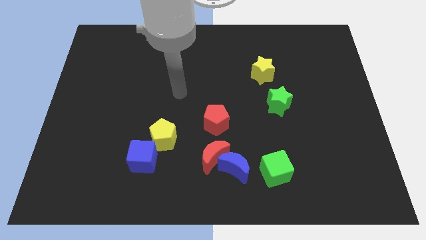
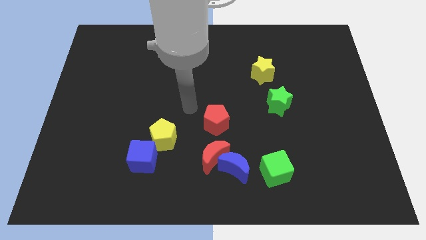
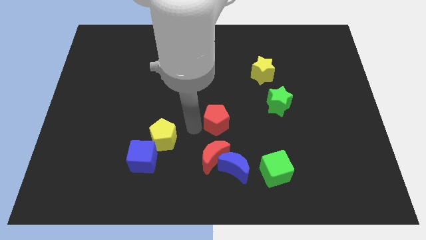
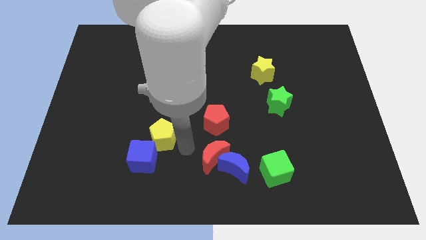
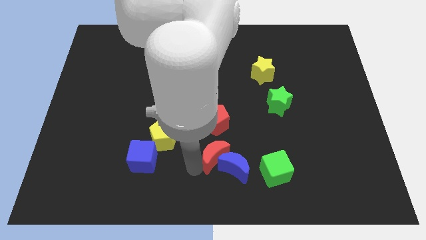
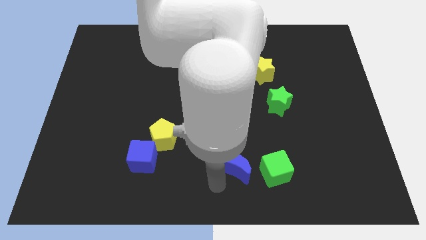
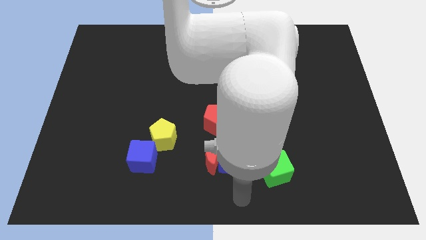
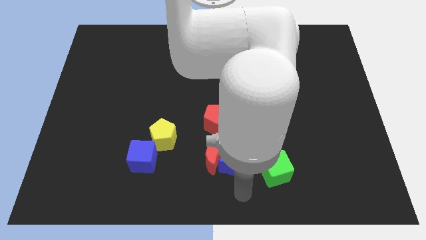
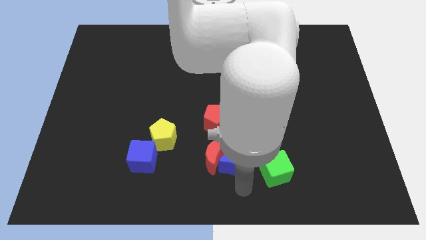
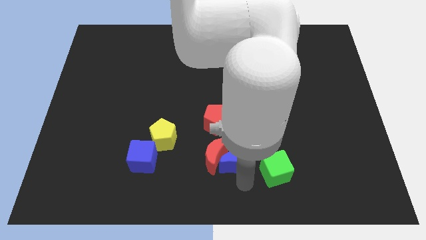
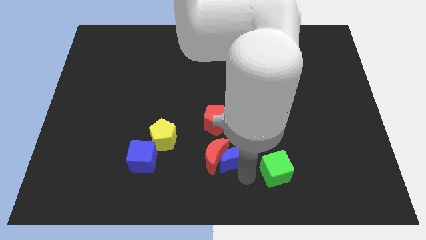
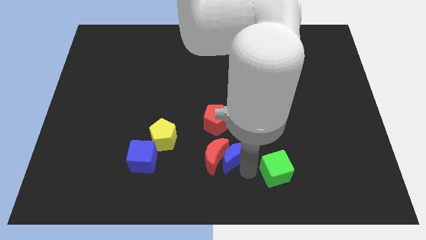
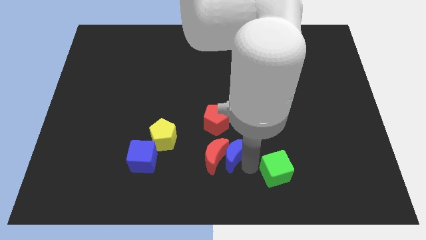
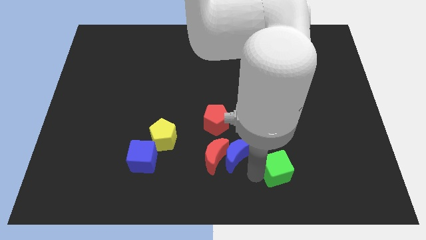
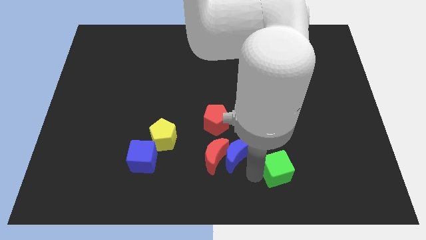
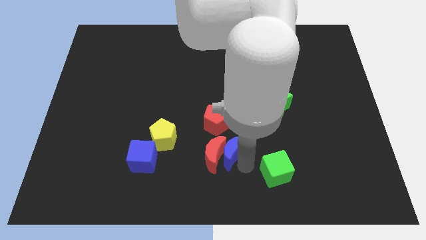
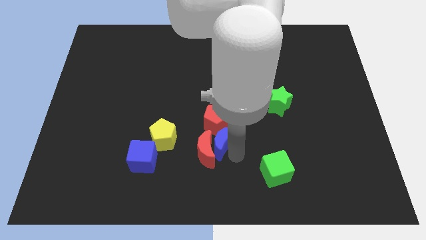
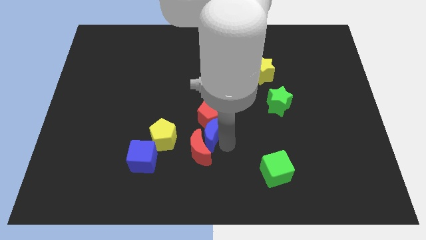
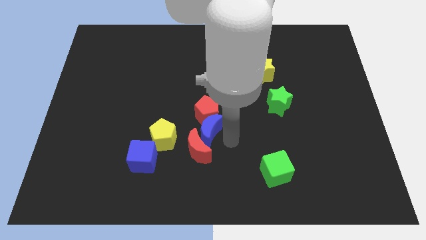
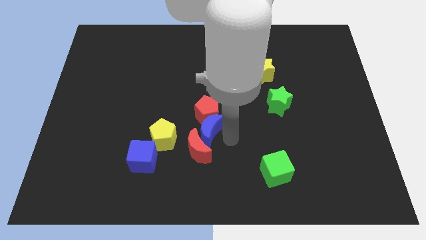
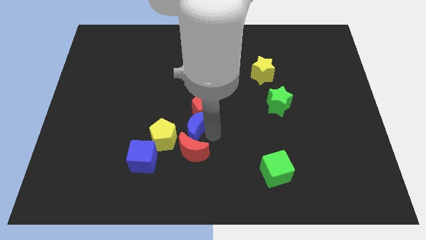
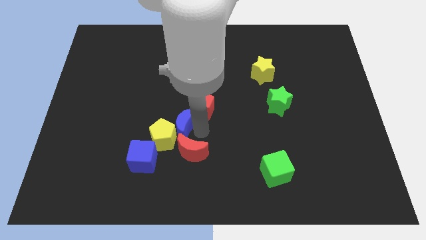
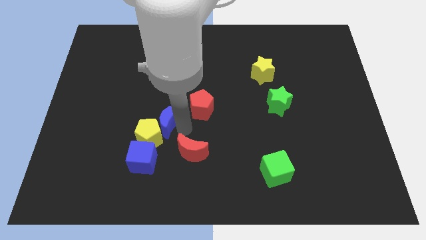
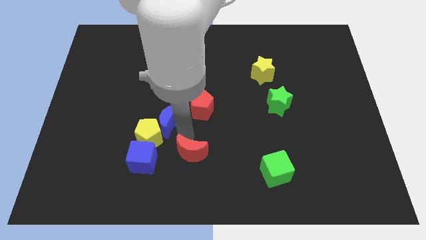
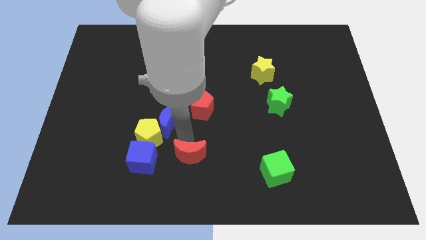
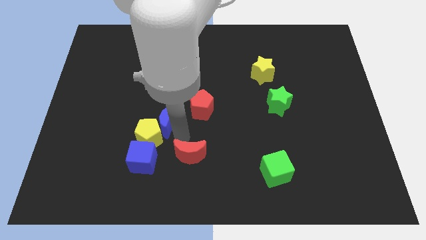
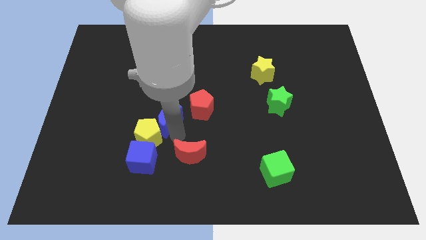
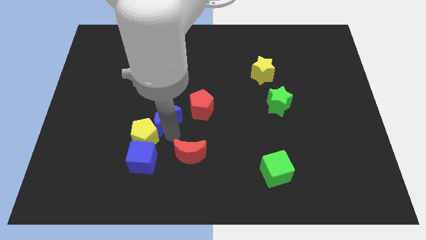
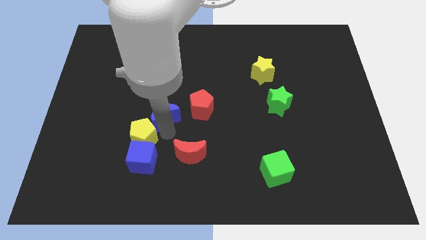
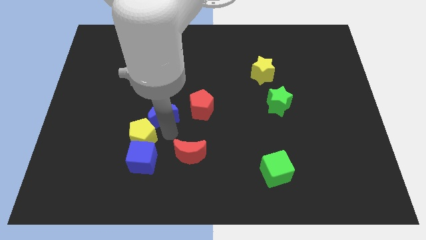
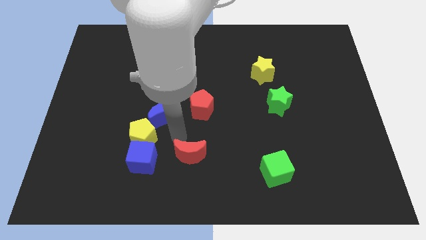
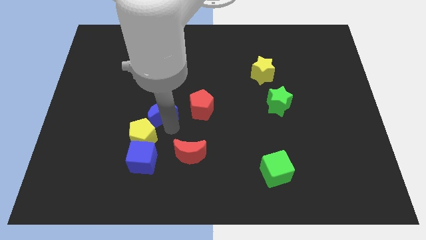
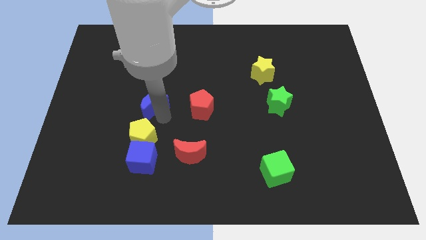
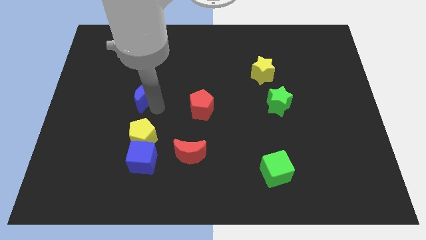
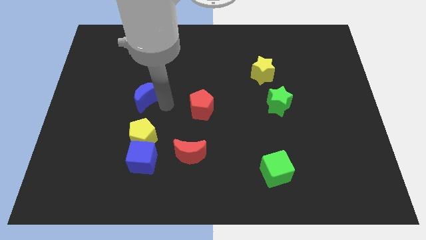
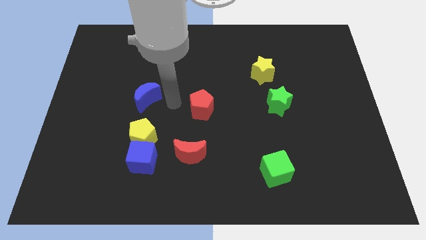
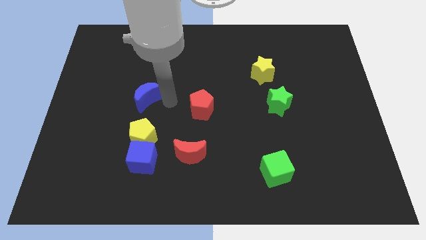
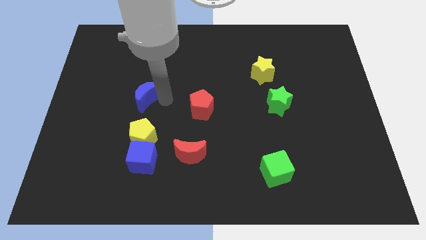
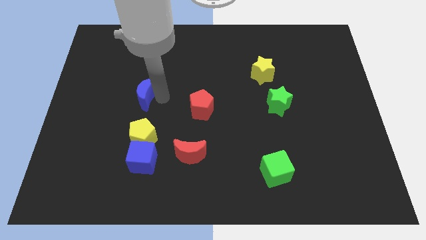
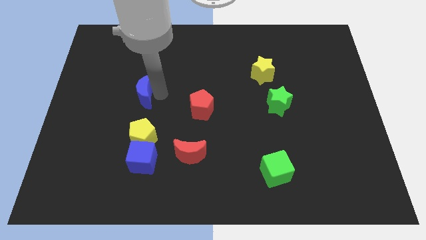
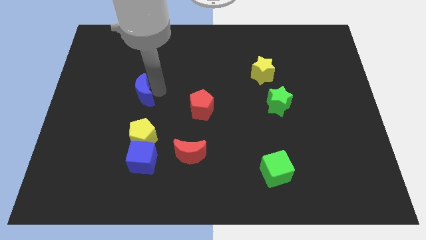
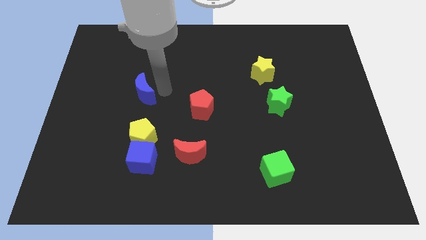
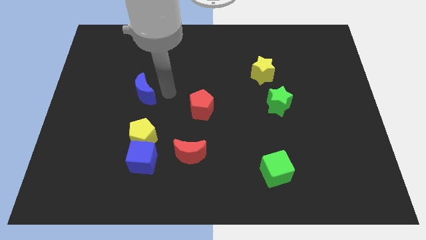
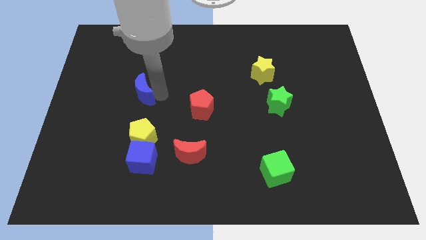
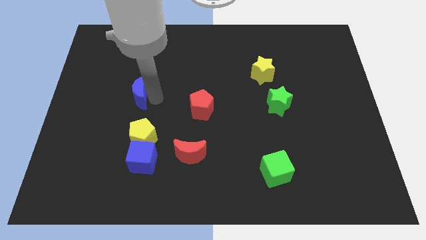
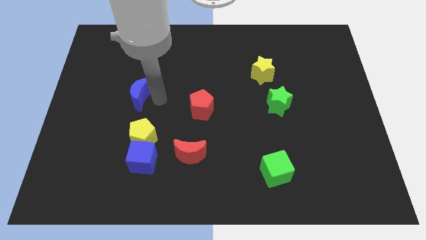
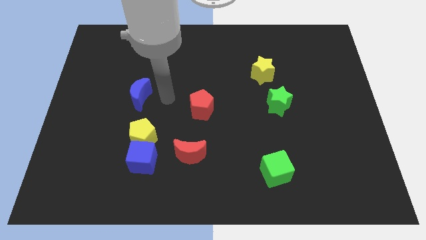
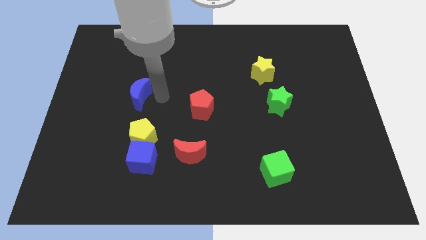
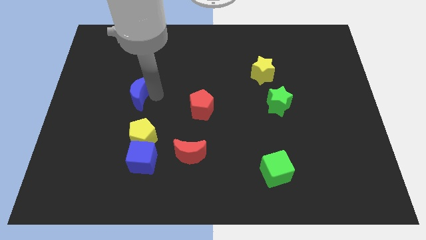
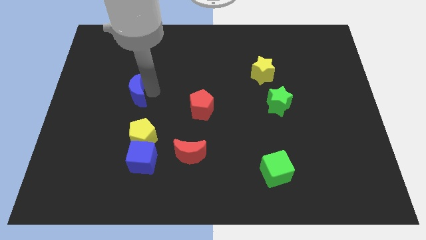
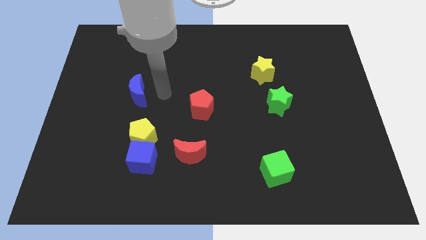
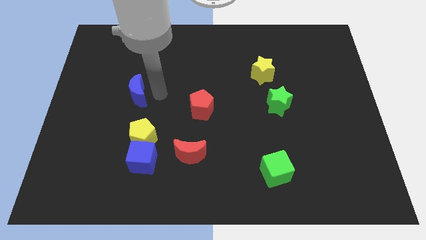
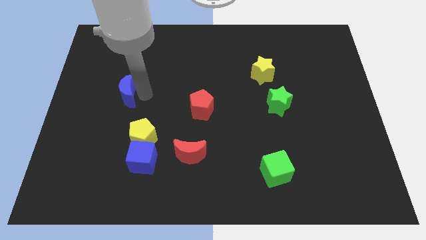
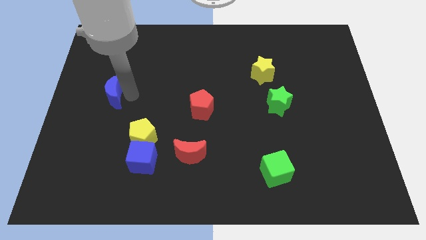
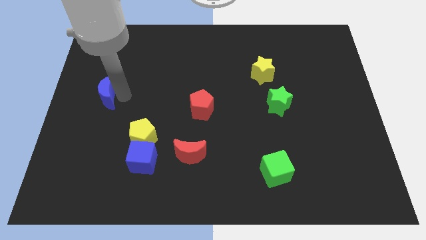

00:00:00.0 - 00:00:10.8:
push the blue moon to the center left

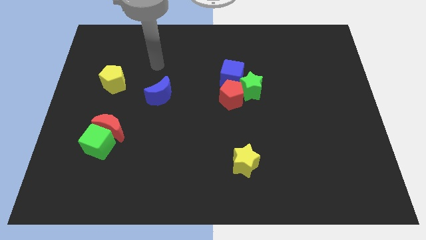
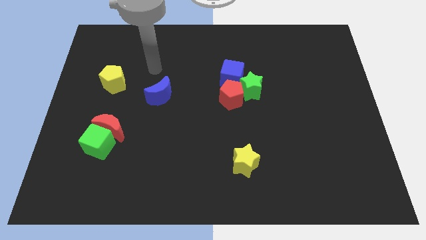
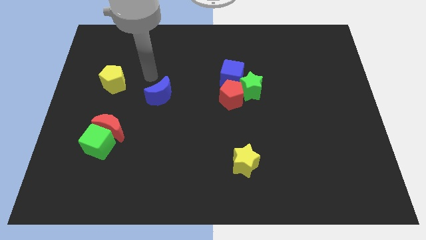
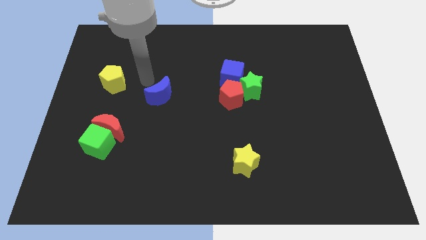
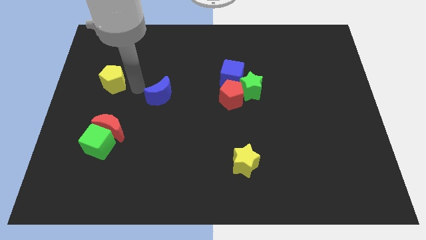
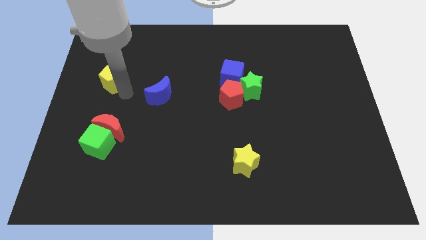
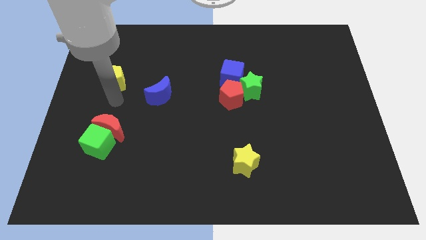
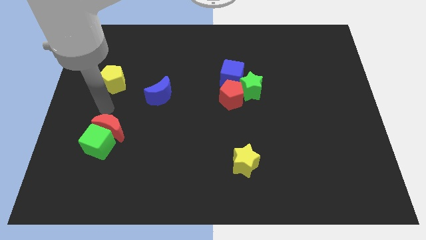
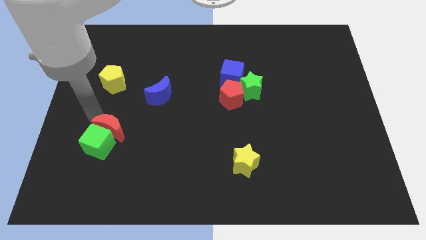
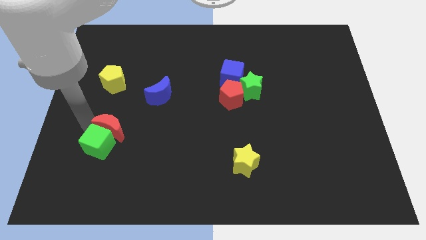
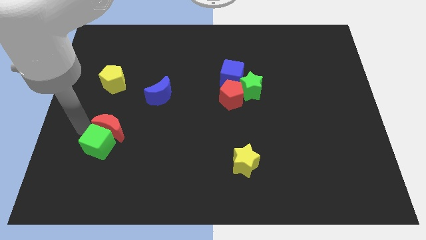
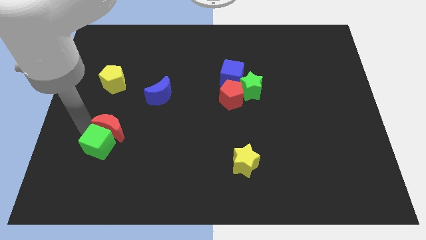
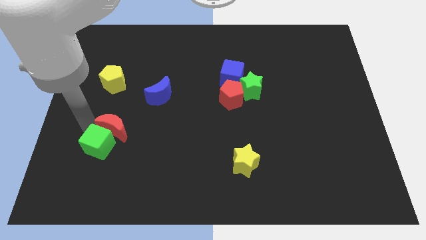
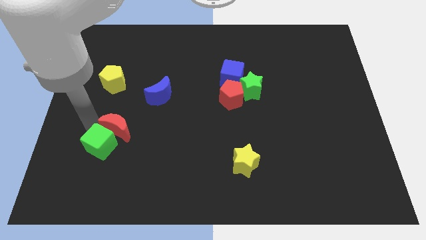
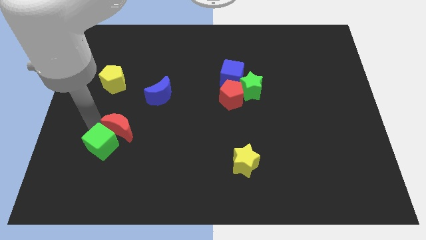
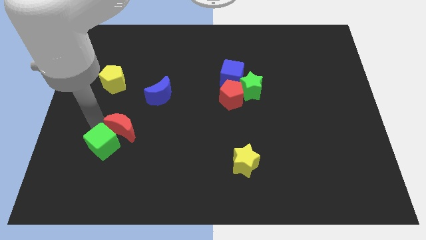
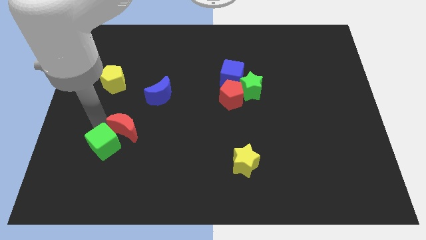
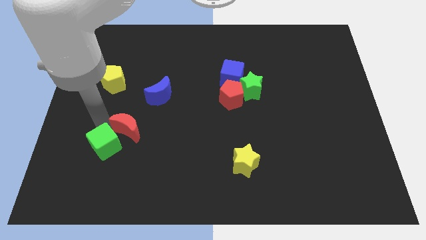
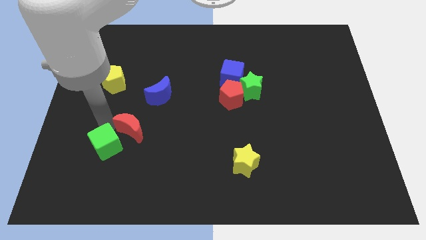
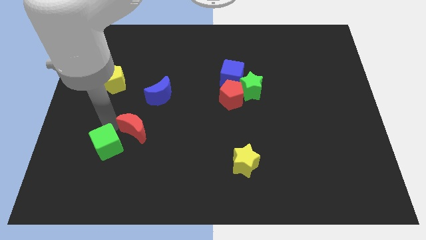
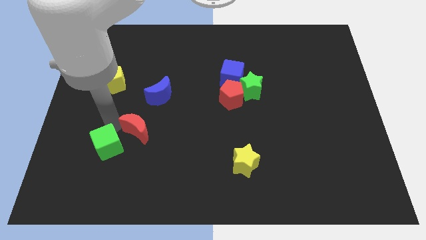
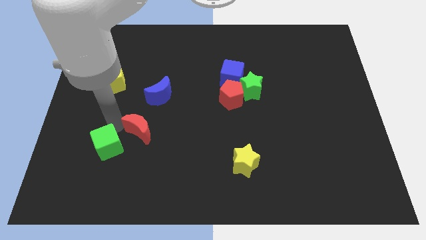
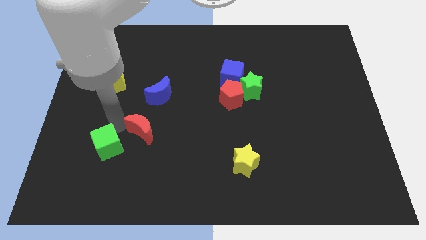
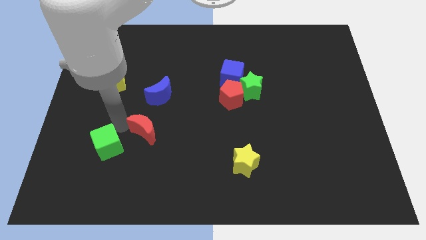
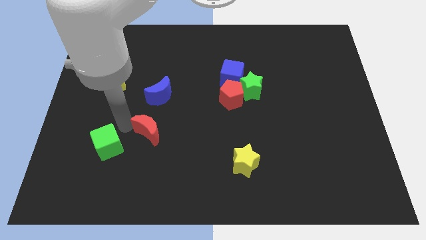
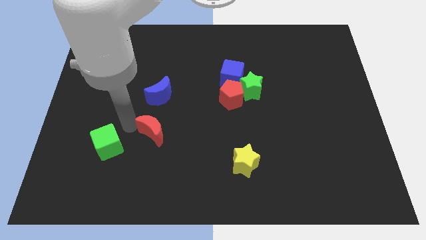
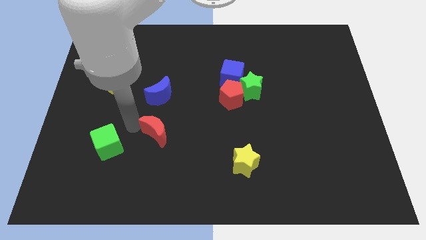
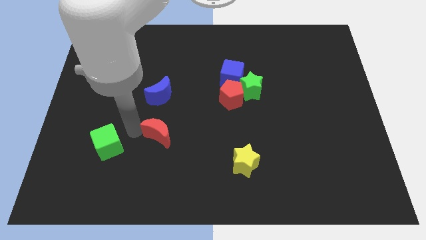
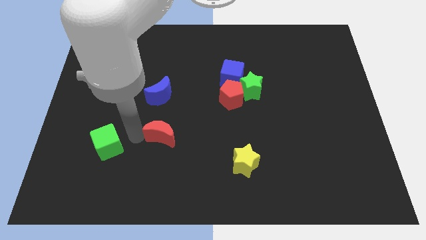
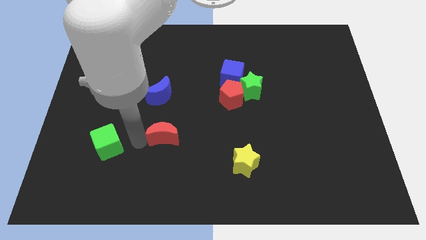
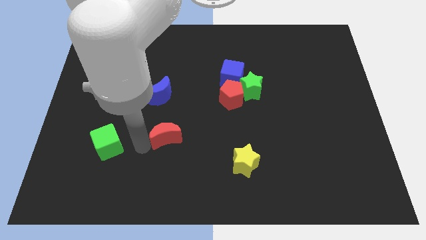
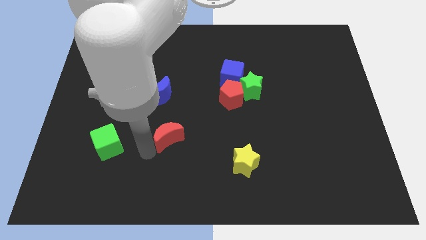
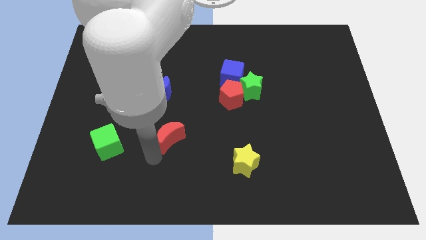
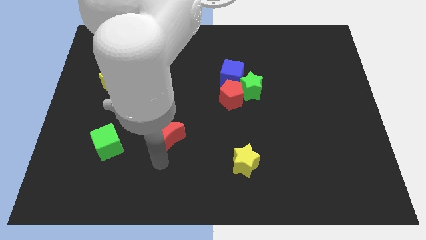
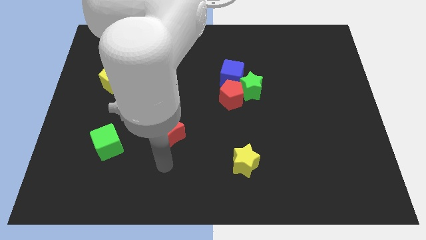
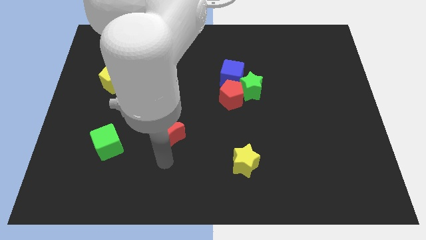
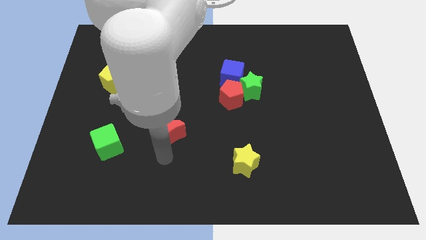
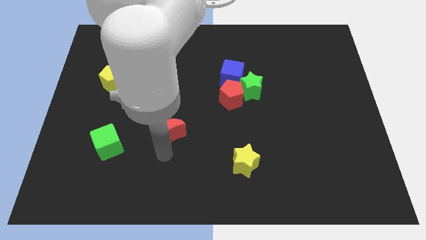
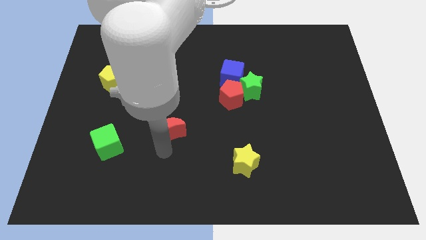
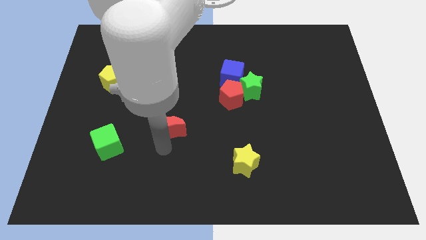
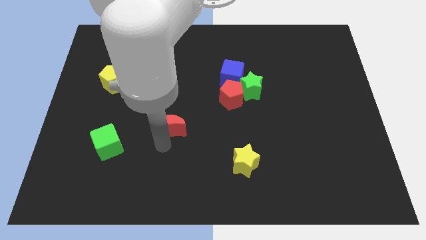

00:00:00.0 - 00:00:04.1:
put the red moon to the center of the board
